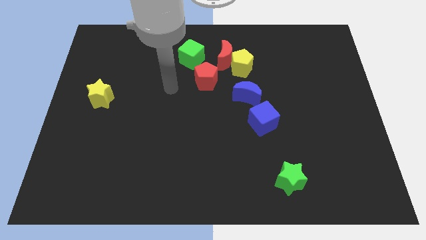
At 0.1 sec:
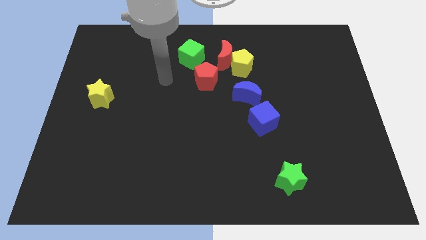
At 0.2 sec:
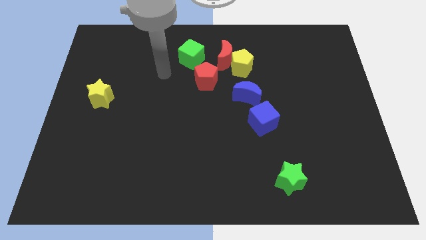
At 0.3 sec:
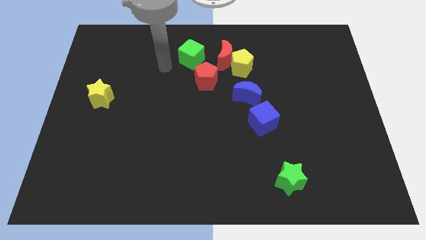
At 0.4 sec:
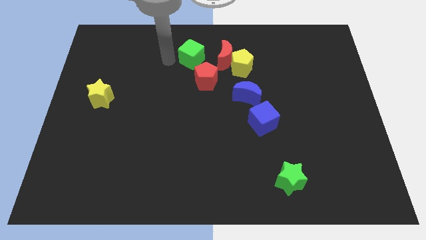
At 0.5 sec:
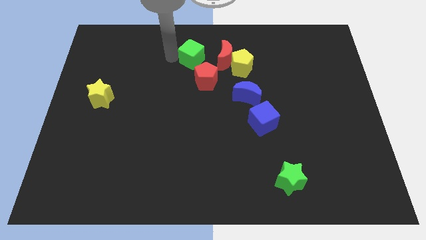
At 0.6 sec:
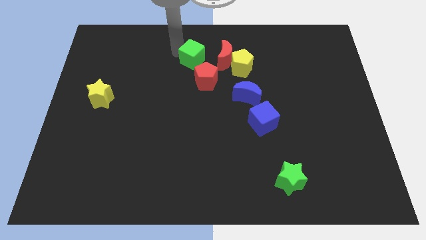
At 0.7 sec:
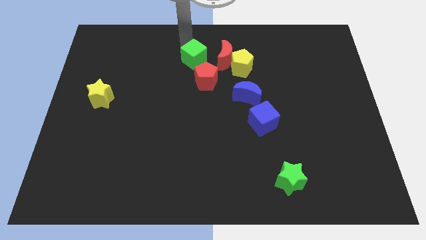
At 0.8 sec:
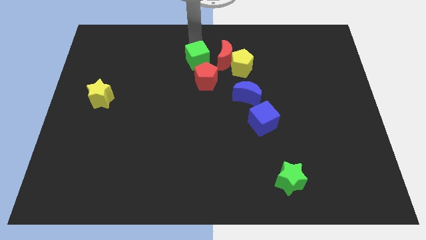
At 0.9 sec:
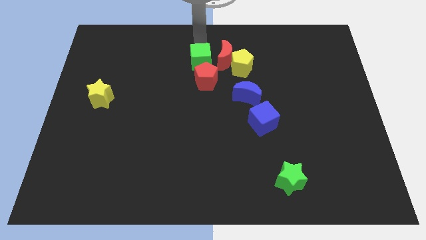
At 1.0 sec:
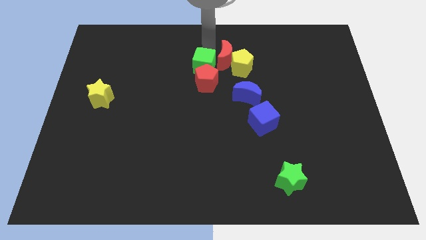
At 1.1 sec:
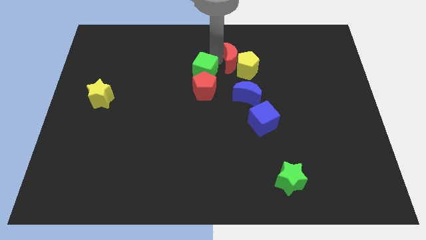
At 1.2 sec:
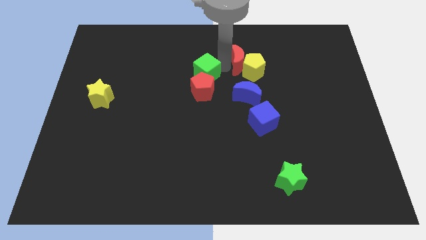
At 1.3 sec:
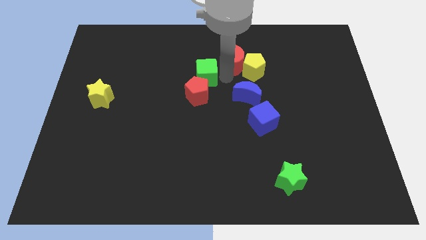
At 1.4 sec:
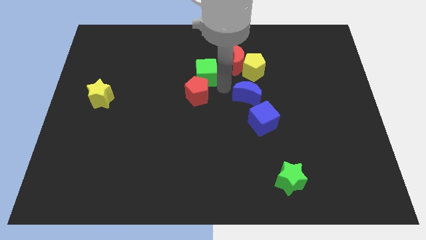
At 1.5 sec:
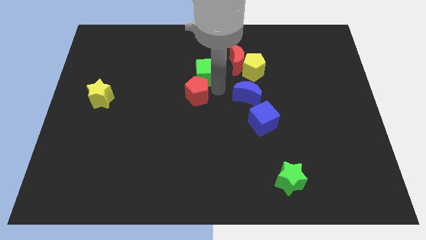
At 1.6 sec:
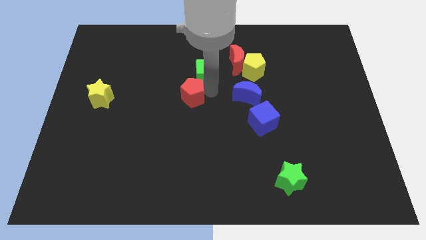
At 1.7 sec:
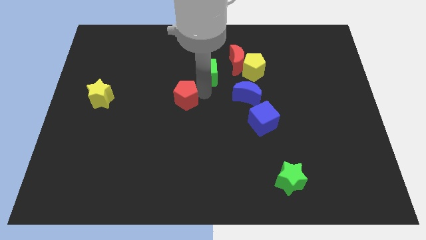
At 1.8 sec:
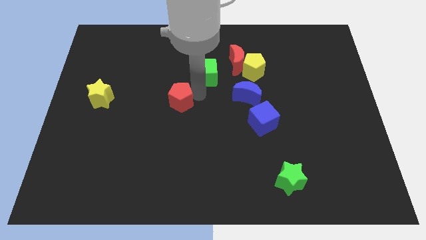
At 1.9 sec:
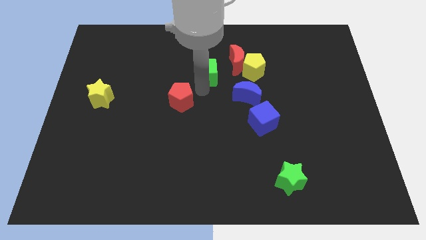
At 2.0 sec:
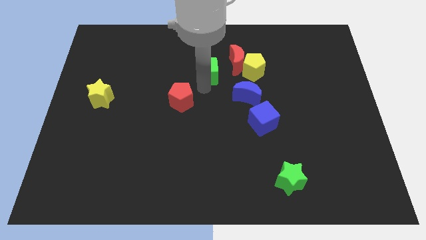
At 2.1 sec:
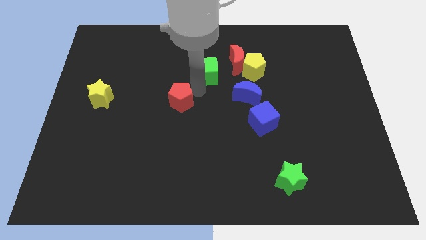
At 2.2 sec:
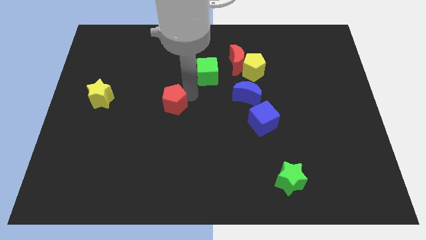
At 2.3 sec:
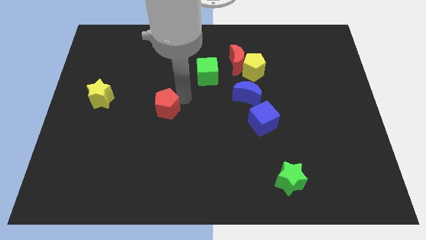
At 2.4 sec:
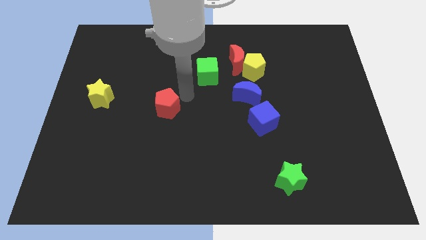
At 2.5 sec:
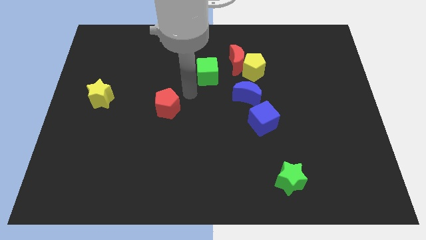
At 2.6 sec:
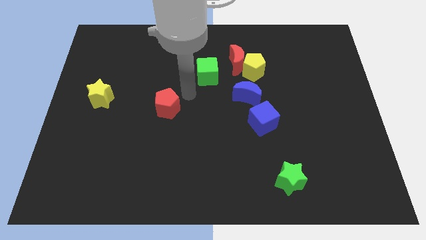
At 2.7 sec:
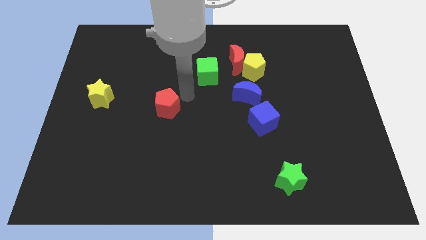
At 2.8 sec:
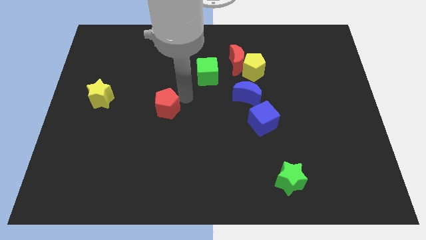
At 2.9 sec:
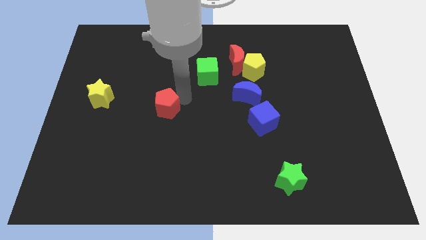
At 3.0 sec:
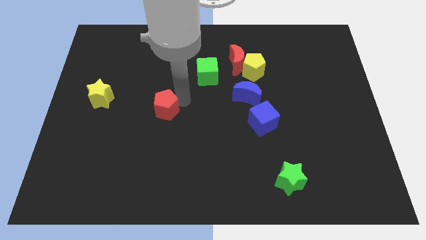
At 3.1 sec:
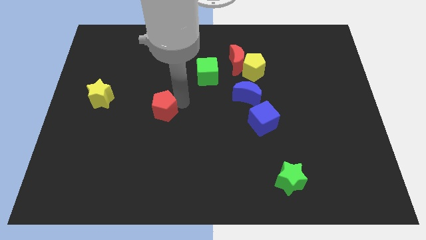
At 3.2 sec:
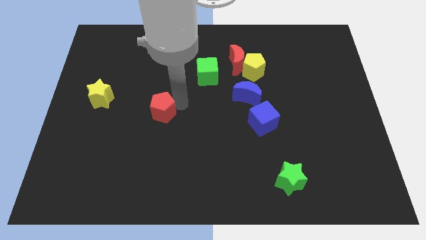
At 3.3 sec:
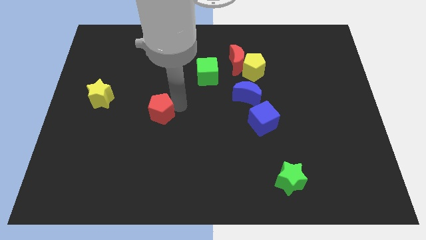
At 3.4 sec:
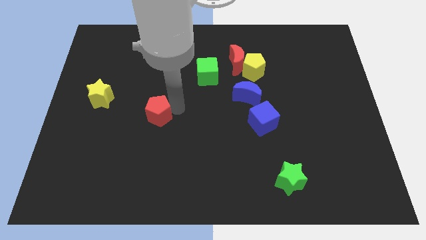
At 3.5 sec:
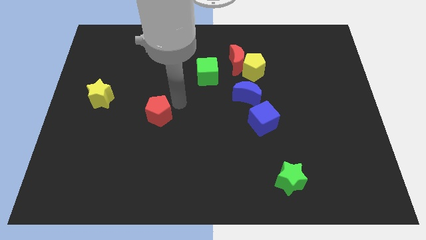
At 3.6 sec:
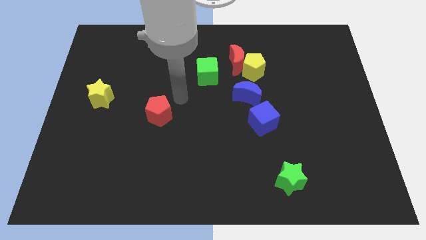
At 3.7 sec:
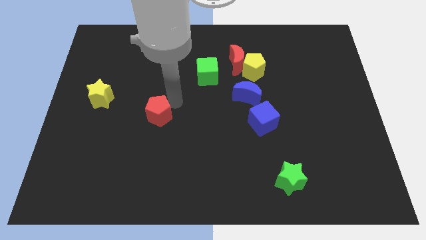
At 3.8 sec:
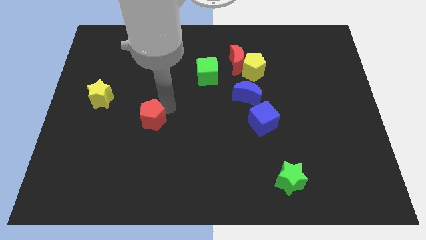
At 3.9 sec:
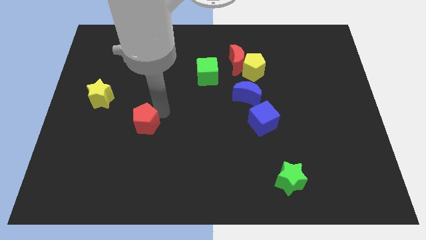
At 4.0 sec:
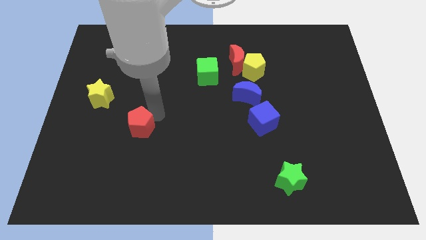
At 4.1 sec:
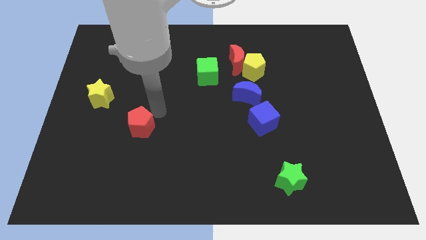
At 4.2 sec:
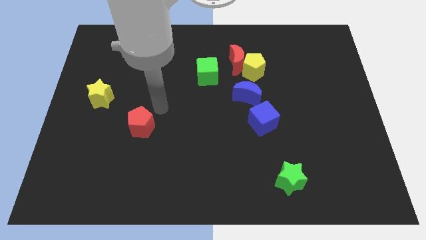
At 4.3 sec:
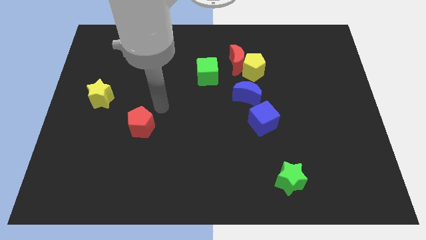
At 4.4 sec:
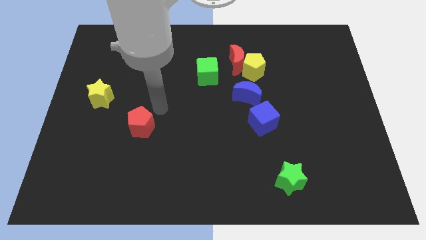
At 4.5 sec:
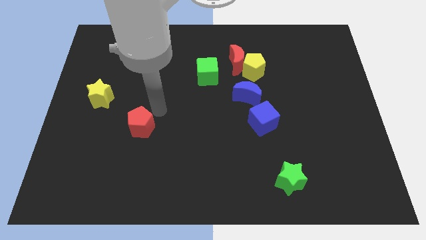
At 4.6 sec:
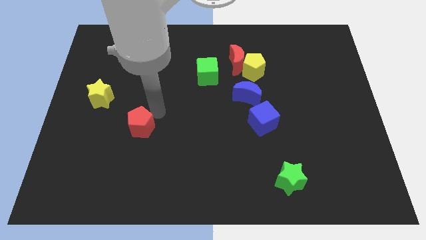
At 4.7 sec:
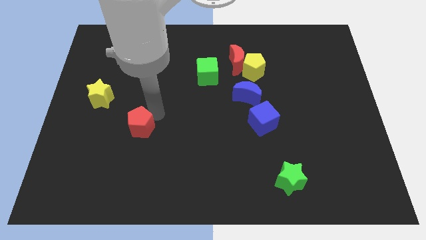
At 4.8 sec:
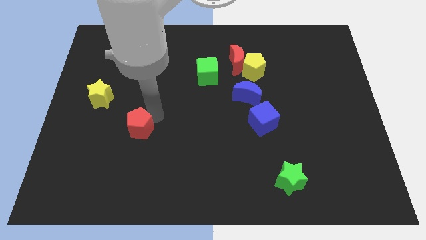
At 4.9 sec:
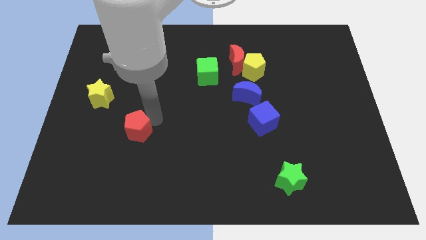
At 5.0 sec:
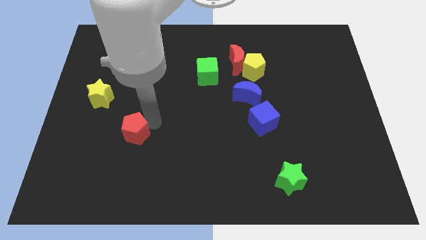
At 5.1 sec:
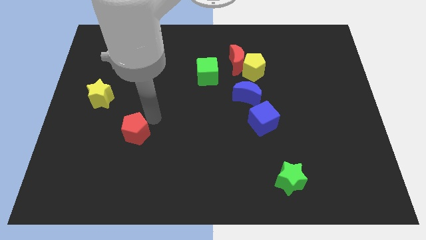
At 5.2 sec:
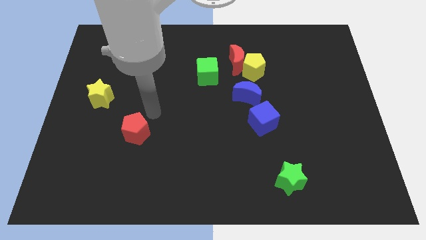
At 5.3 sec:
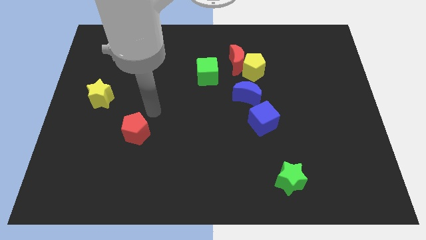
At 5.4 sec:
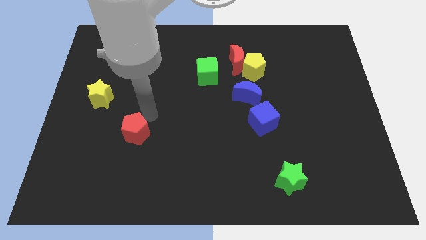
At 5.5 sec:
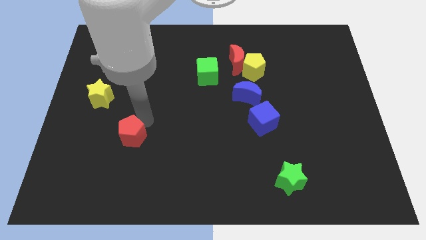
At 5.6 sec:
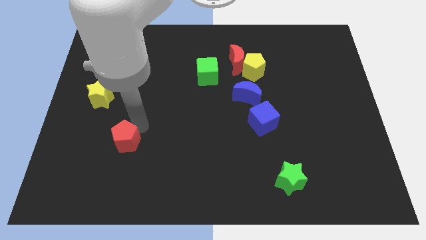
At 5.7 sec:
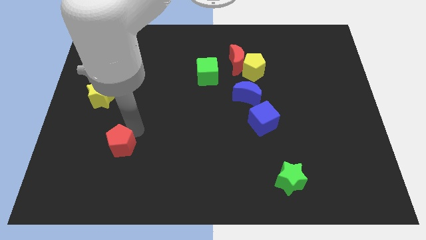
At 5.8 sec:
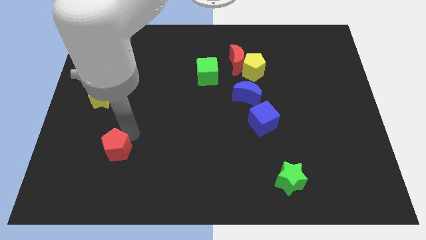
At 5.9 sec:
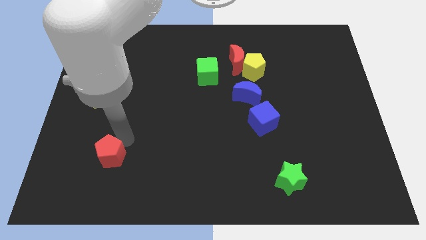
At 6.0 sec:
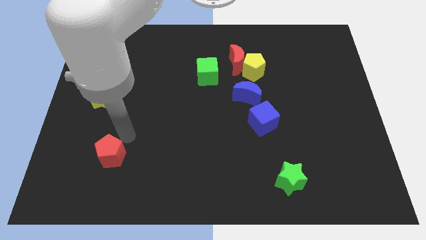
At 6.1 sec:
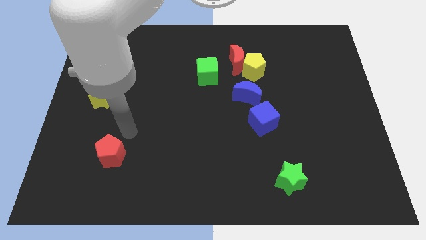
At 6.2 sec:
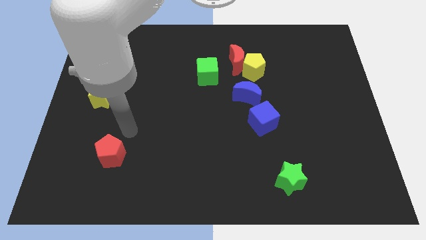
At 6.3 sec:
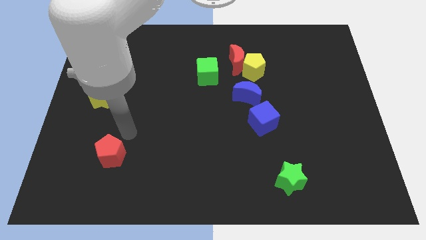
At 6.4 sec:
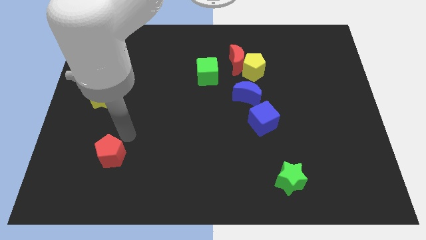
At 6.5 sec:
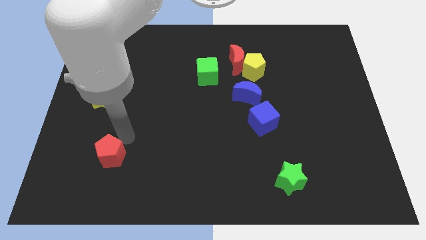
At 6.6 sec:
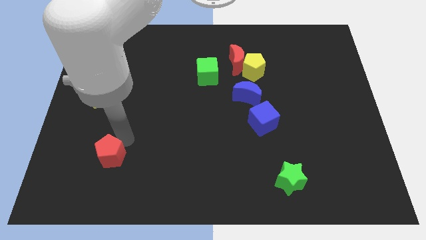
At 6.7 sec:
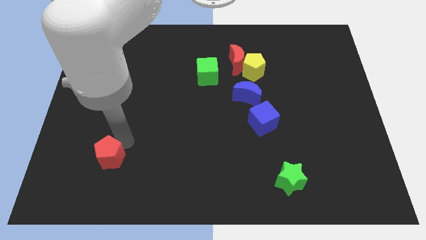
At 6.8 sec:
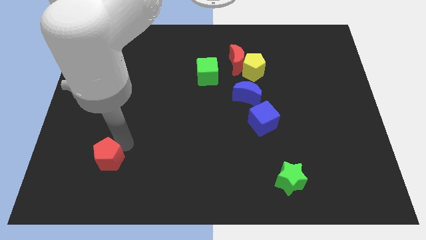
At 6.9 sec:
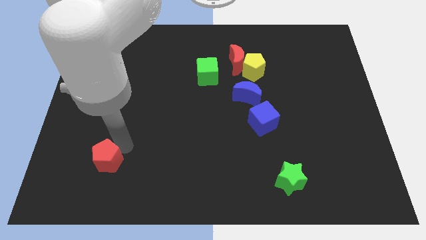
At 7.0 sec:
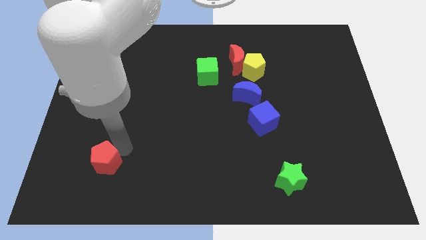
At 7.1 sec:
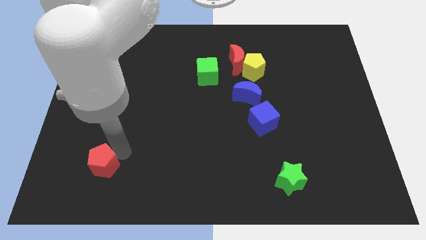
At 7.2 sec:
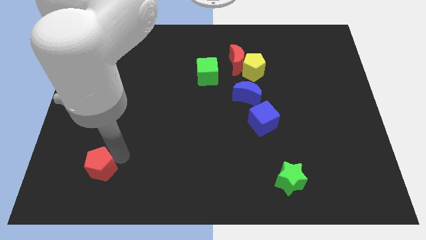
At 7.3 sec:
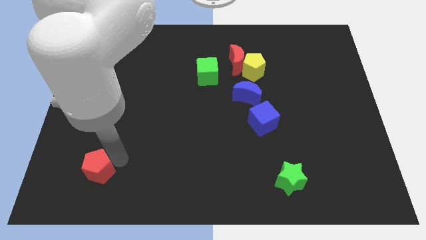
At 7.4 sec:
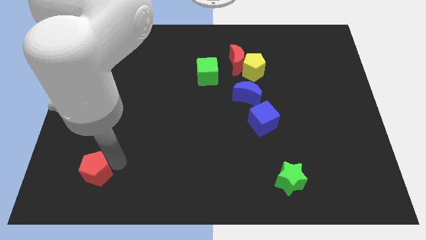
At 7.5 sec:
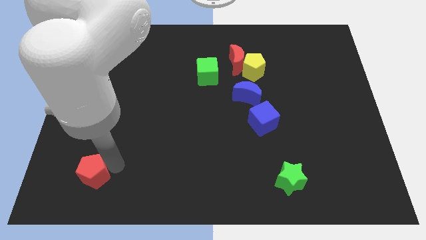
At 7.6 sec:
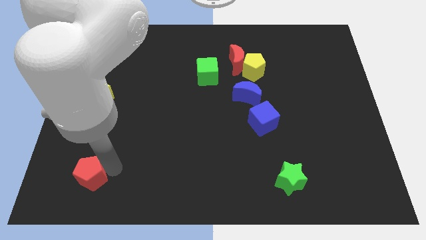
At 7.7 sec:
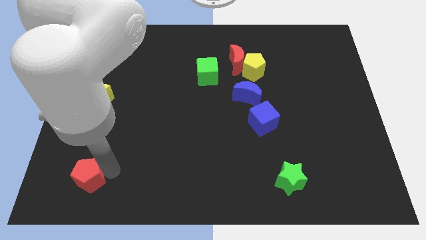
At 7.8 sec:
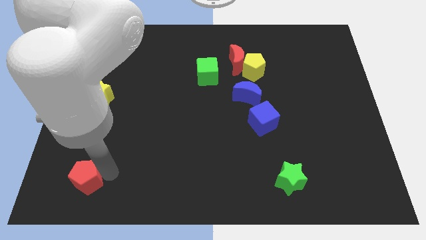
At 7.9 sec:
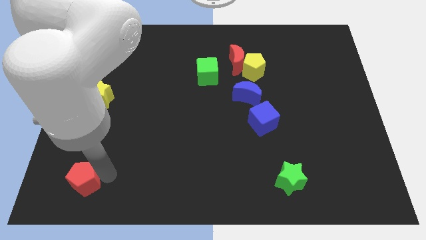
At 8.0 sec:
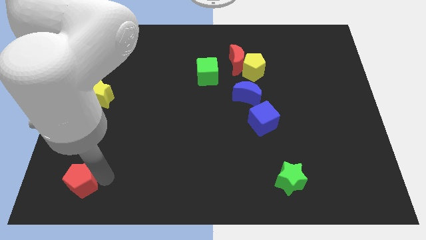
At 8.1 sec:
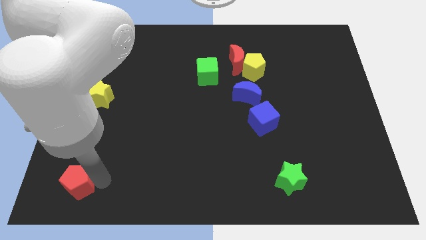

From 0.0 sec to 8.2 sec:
push the red pentagon to the bottom left
